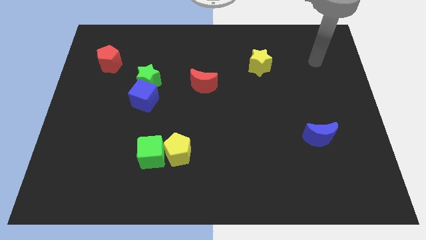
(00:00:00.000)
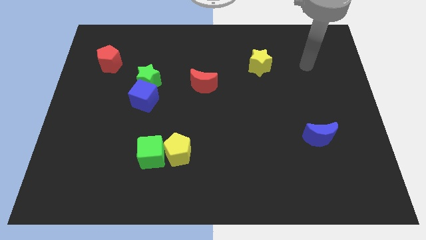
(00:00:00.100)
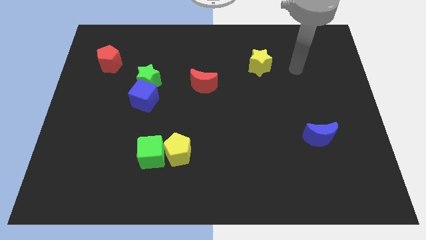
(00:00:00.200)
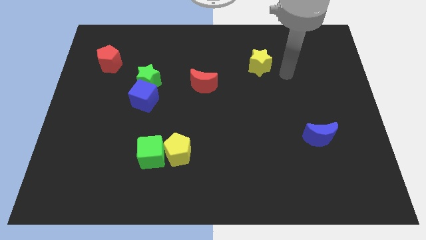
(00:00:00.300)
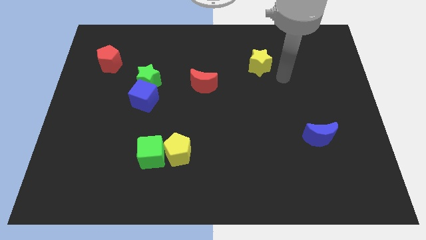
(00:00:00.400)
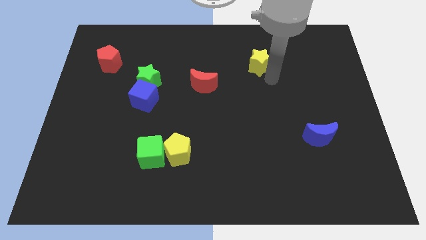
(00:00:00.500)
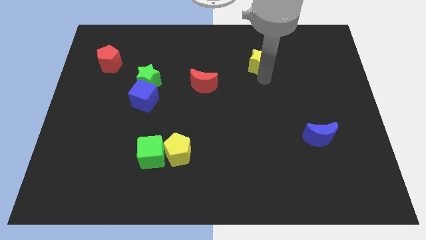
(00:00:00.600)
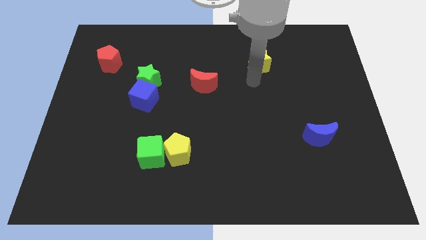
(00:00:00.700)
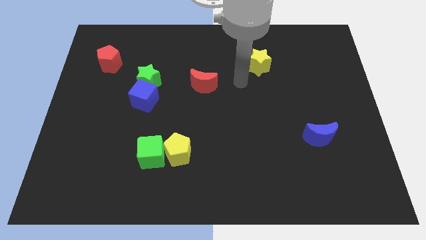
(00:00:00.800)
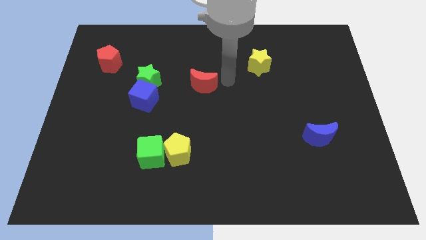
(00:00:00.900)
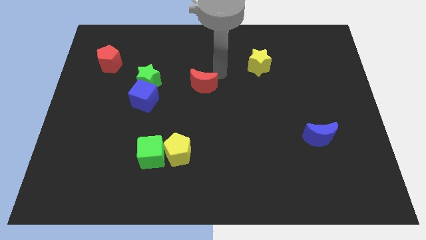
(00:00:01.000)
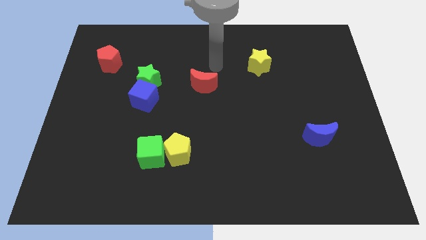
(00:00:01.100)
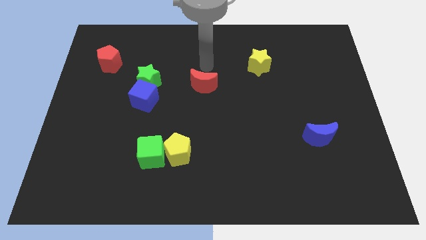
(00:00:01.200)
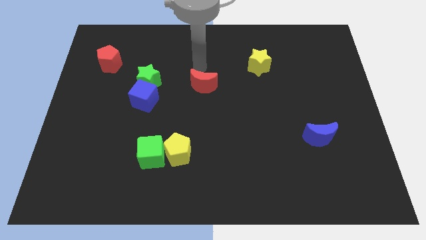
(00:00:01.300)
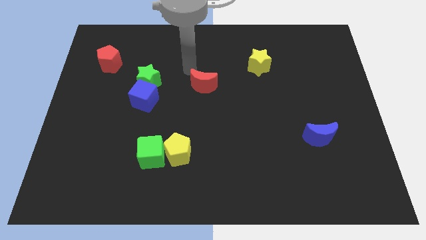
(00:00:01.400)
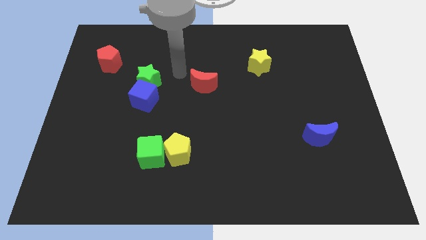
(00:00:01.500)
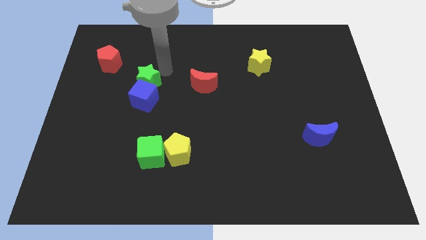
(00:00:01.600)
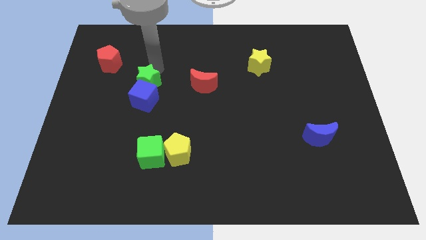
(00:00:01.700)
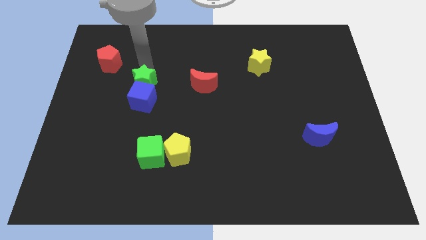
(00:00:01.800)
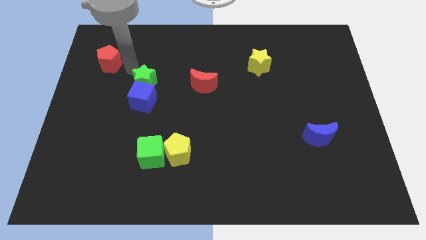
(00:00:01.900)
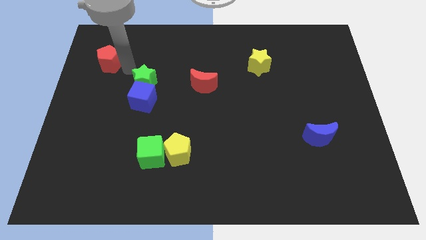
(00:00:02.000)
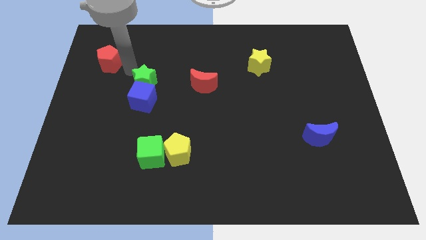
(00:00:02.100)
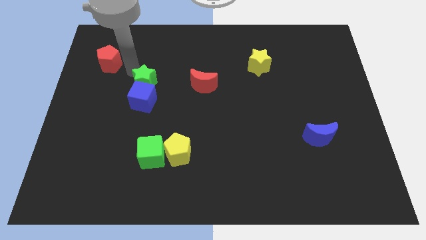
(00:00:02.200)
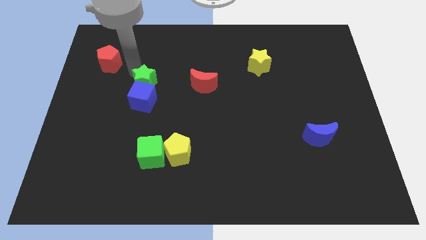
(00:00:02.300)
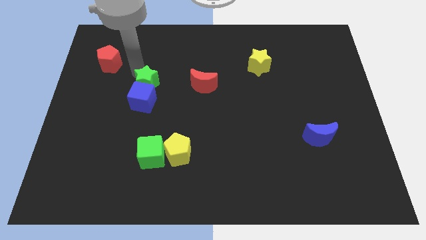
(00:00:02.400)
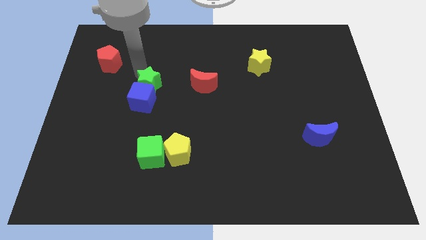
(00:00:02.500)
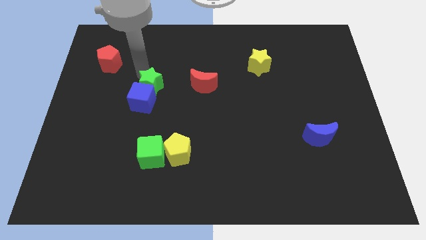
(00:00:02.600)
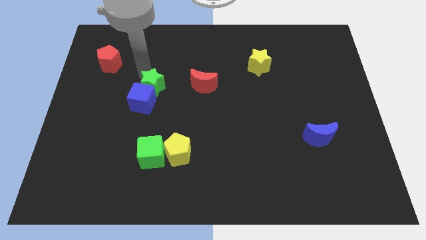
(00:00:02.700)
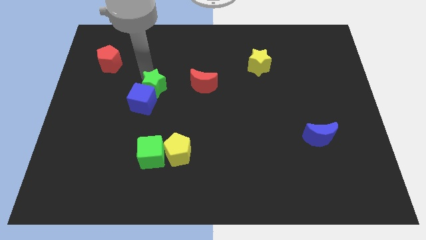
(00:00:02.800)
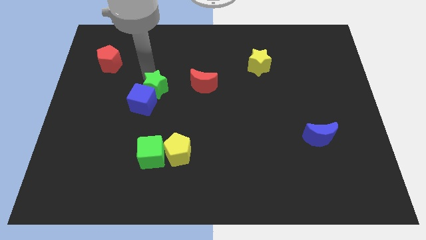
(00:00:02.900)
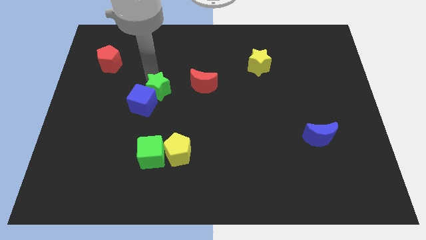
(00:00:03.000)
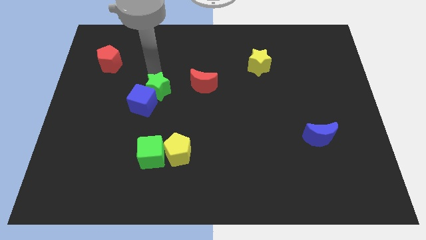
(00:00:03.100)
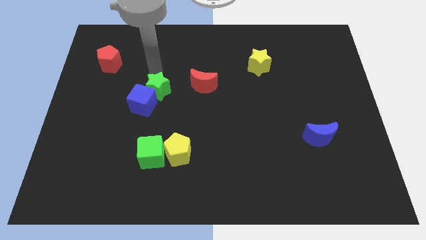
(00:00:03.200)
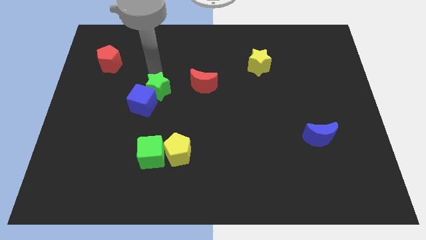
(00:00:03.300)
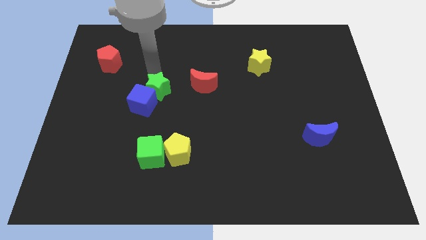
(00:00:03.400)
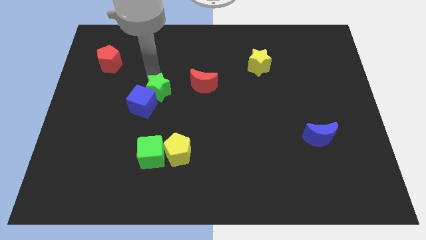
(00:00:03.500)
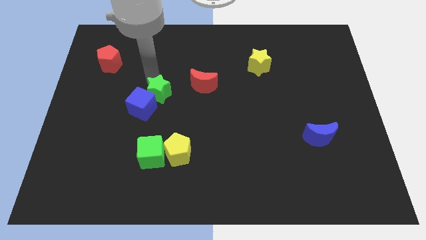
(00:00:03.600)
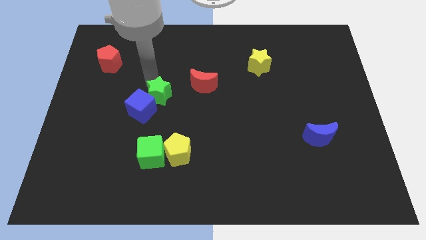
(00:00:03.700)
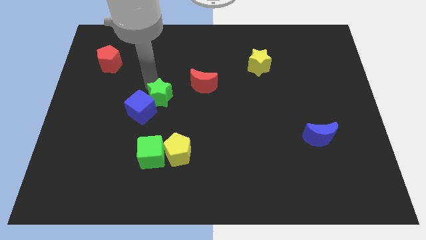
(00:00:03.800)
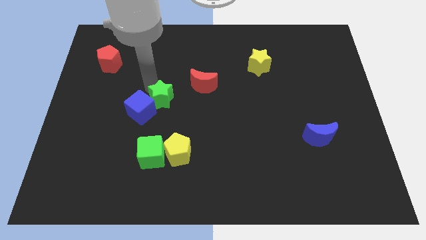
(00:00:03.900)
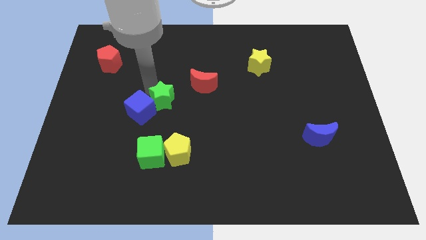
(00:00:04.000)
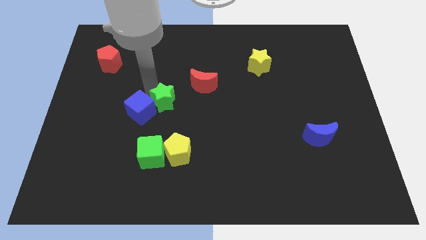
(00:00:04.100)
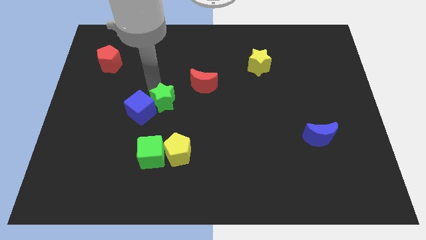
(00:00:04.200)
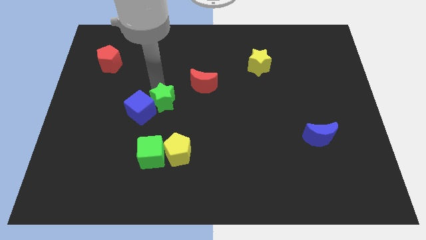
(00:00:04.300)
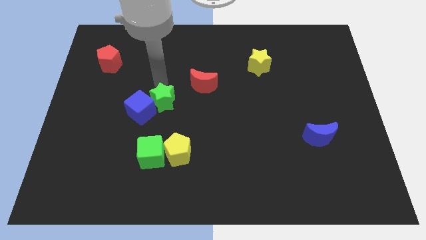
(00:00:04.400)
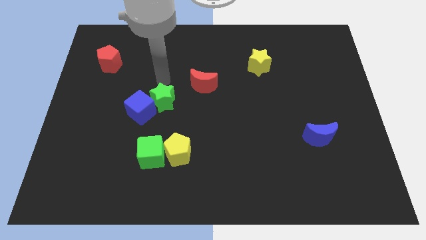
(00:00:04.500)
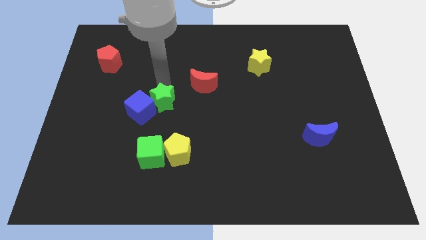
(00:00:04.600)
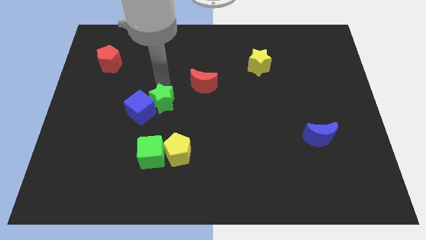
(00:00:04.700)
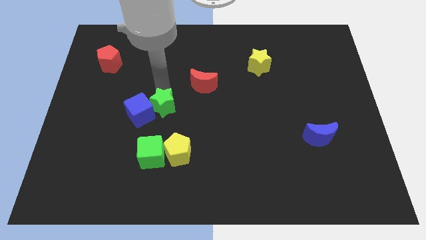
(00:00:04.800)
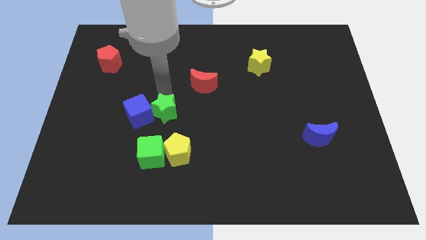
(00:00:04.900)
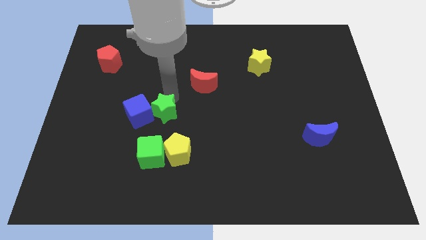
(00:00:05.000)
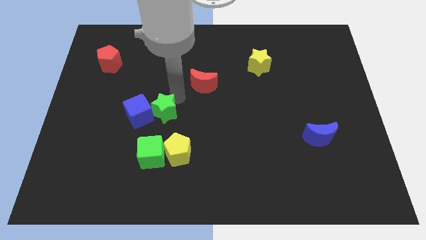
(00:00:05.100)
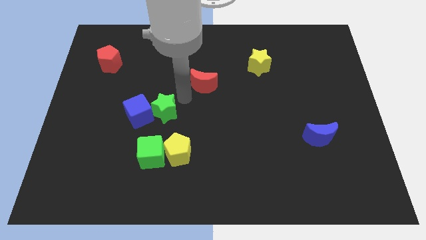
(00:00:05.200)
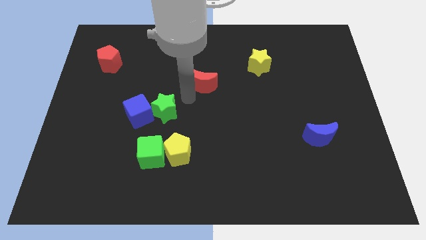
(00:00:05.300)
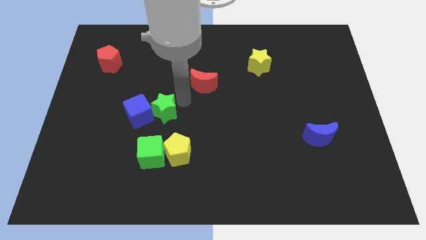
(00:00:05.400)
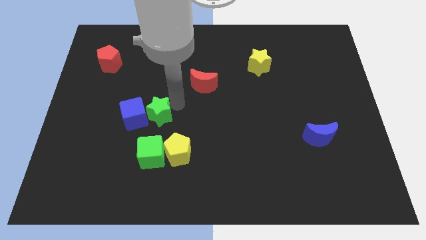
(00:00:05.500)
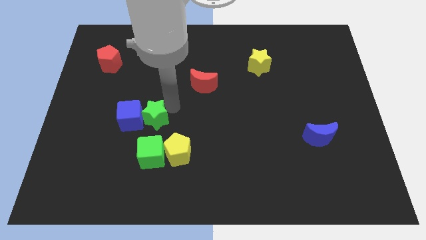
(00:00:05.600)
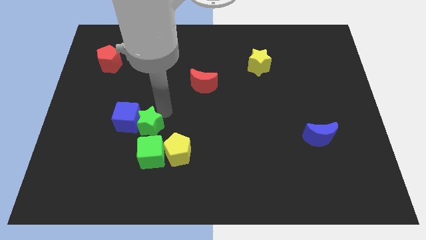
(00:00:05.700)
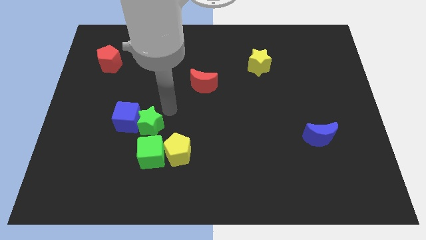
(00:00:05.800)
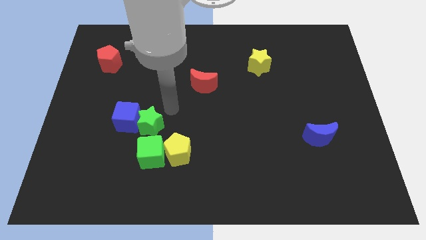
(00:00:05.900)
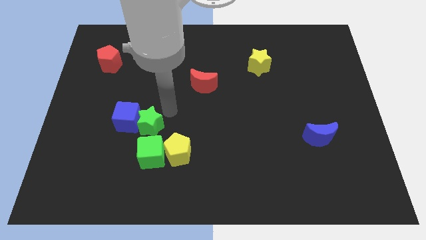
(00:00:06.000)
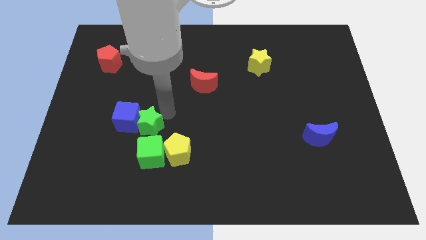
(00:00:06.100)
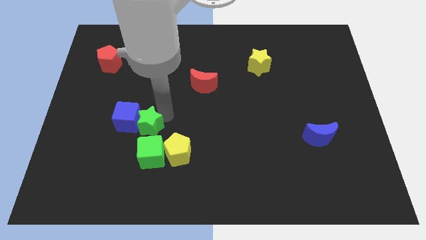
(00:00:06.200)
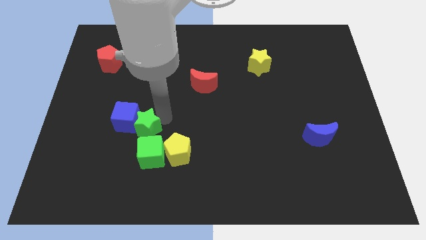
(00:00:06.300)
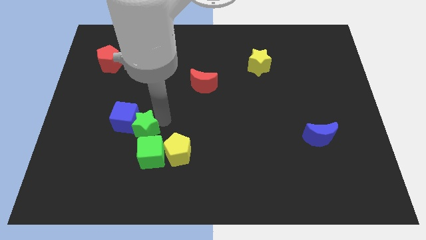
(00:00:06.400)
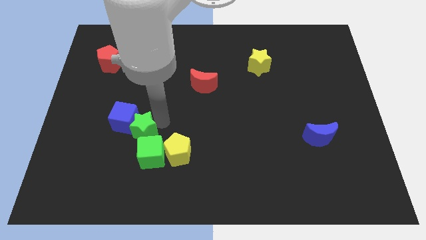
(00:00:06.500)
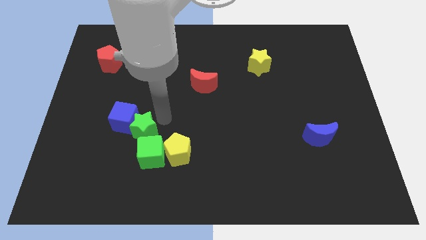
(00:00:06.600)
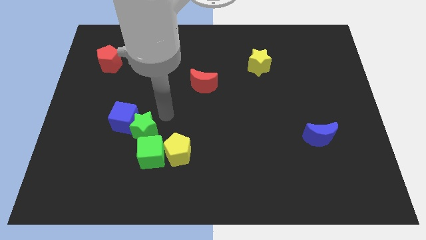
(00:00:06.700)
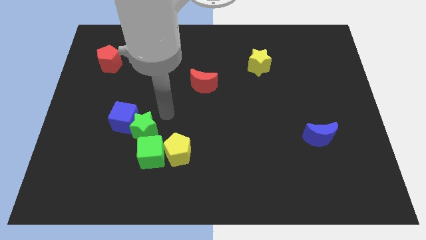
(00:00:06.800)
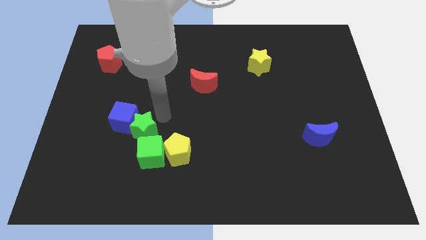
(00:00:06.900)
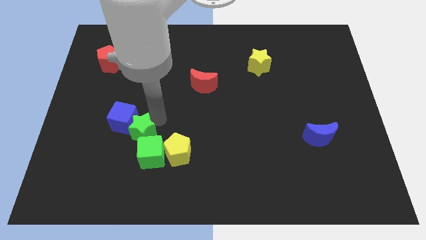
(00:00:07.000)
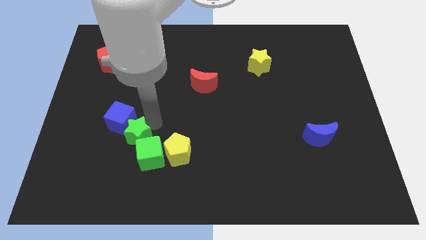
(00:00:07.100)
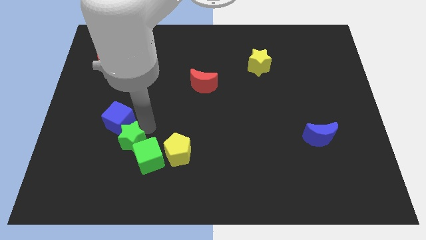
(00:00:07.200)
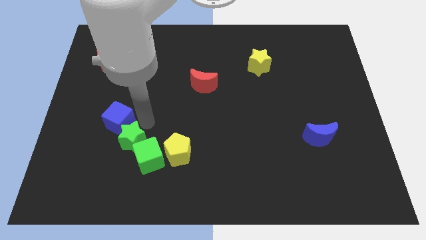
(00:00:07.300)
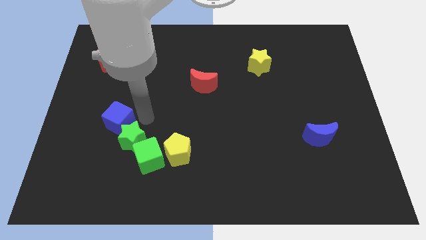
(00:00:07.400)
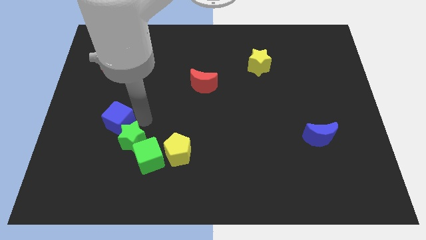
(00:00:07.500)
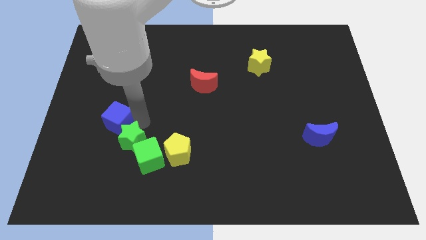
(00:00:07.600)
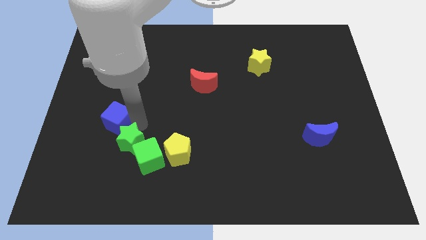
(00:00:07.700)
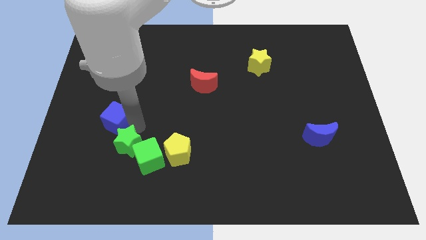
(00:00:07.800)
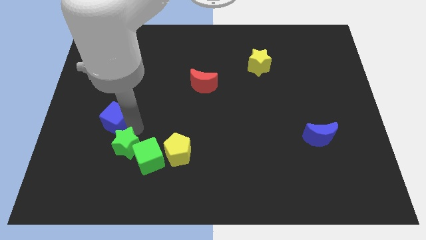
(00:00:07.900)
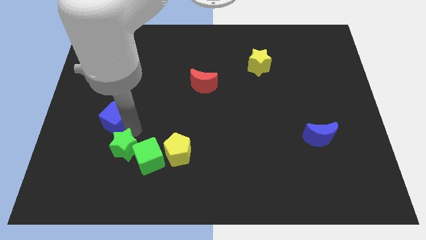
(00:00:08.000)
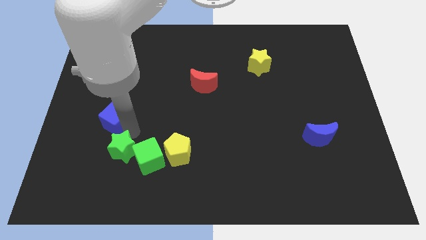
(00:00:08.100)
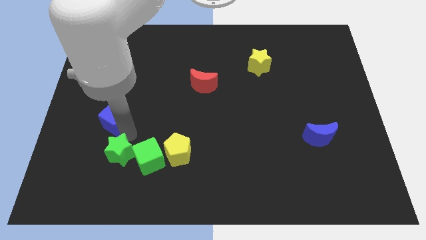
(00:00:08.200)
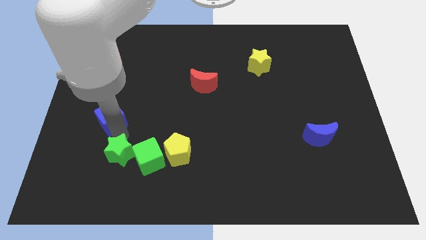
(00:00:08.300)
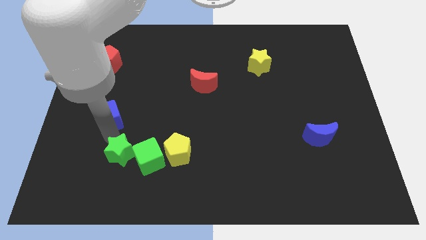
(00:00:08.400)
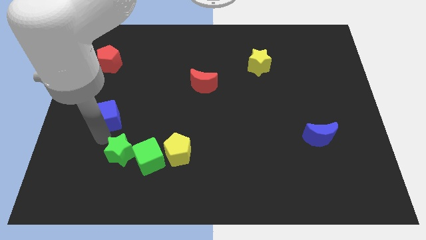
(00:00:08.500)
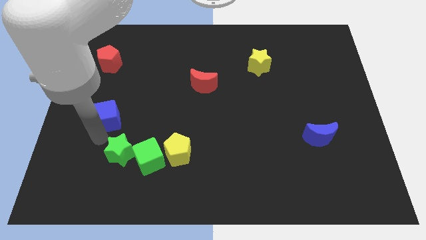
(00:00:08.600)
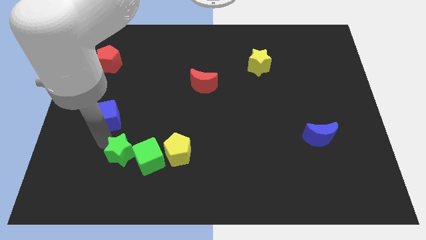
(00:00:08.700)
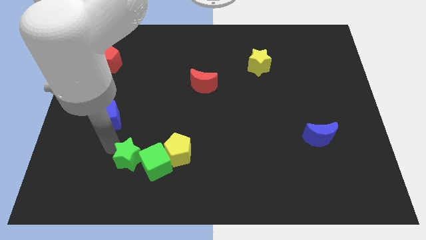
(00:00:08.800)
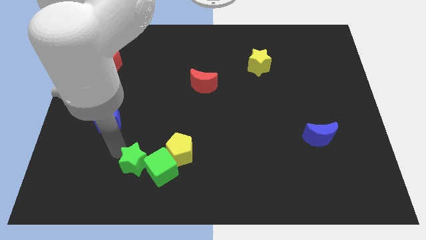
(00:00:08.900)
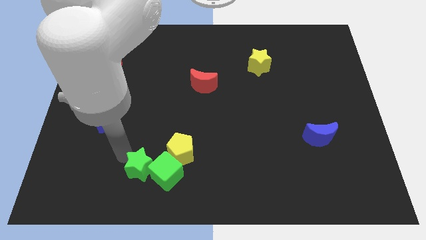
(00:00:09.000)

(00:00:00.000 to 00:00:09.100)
move the green star to the bottom left of the yellow pentagon
